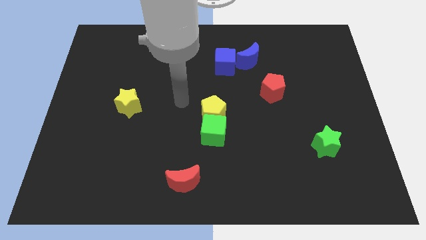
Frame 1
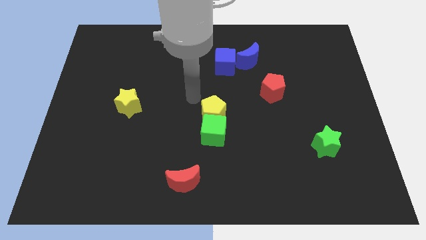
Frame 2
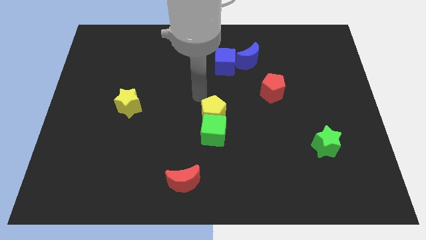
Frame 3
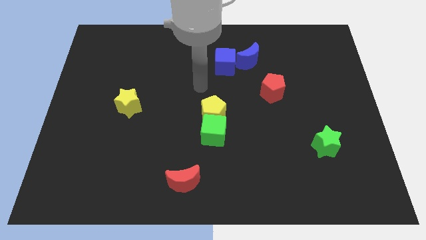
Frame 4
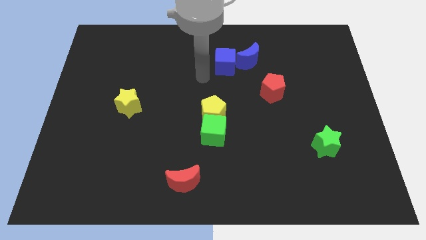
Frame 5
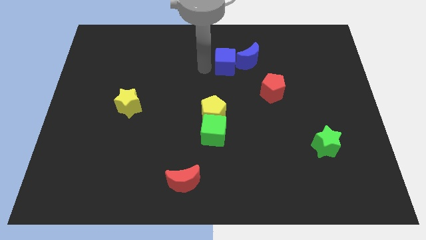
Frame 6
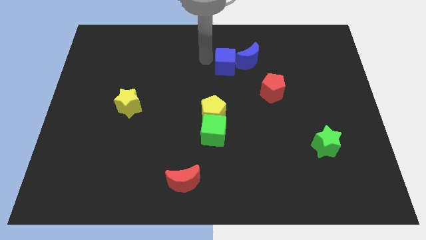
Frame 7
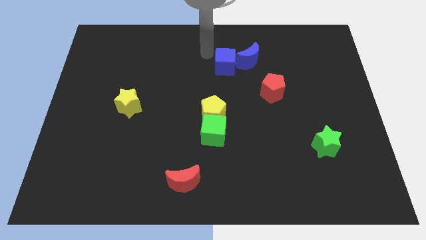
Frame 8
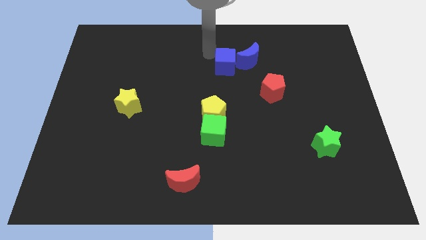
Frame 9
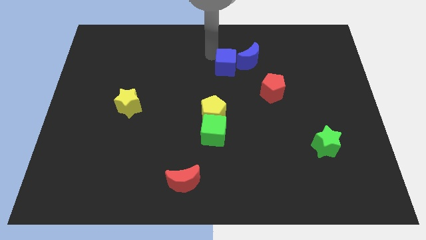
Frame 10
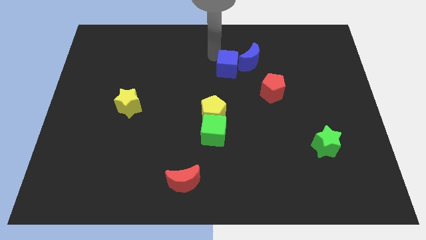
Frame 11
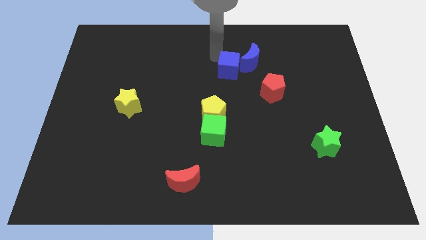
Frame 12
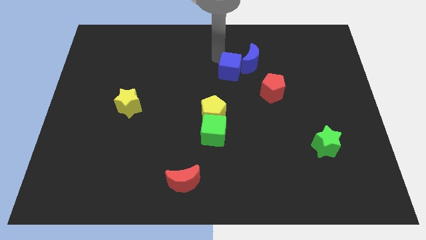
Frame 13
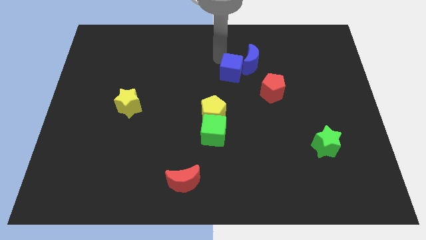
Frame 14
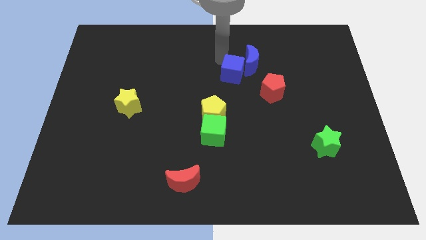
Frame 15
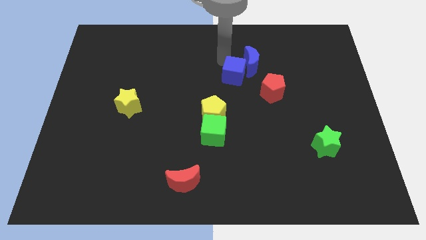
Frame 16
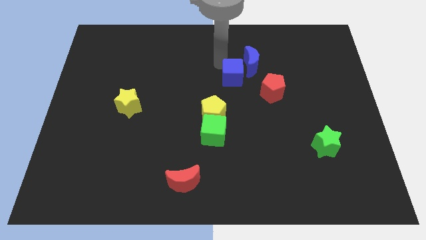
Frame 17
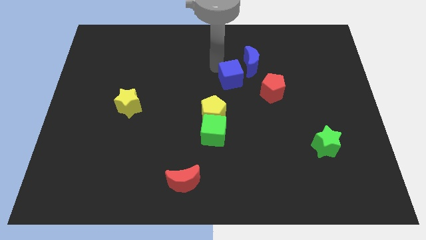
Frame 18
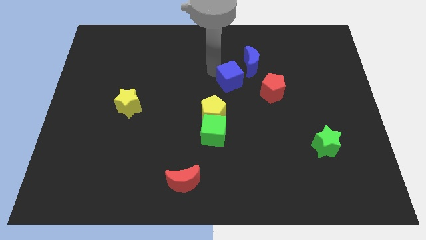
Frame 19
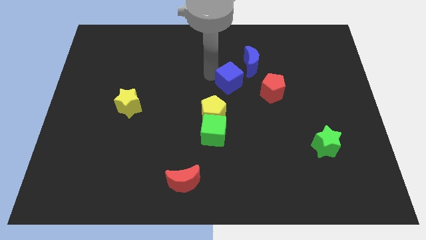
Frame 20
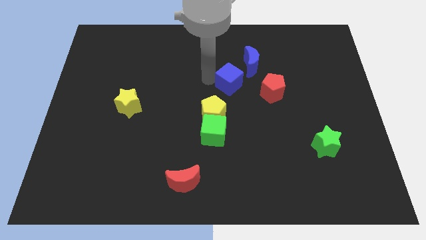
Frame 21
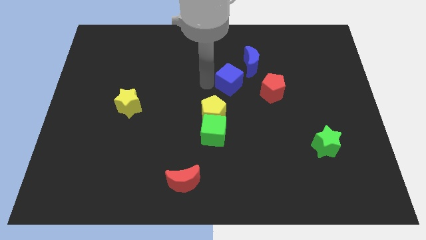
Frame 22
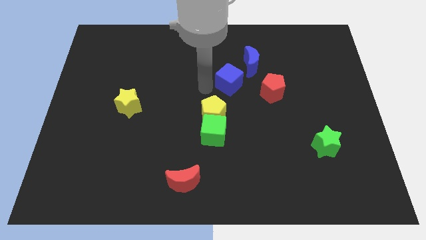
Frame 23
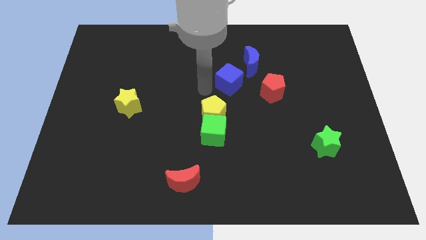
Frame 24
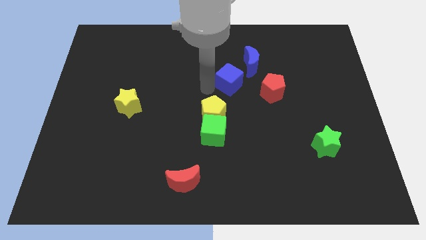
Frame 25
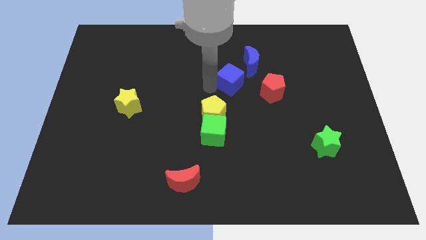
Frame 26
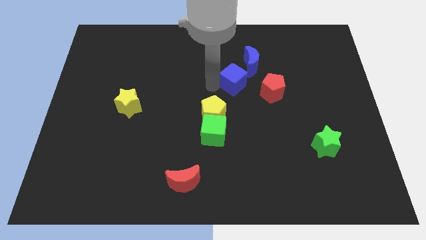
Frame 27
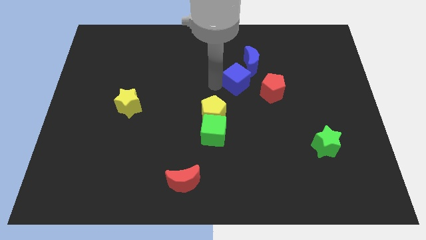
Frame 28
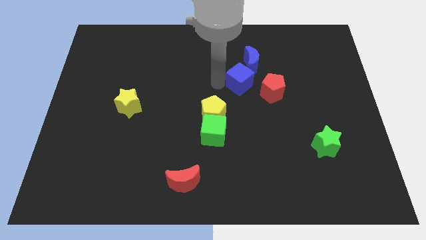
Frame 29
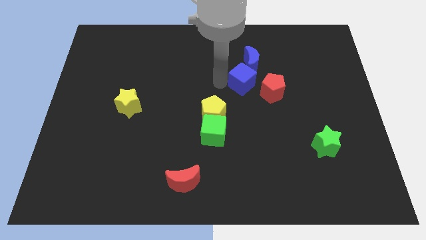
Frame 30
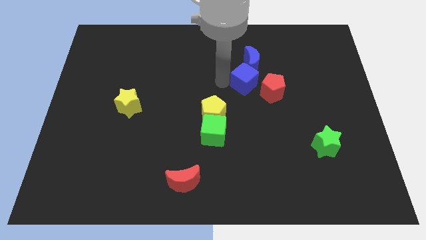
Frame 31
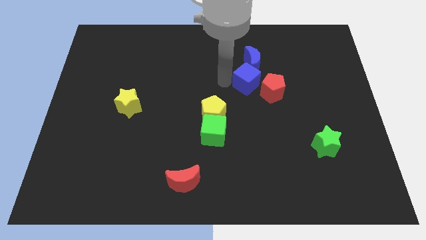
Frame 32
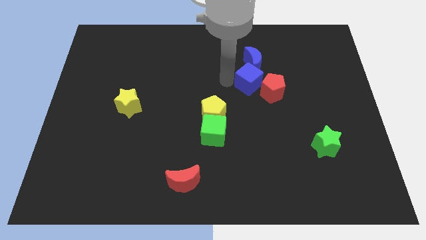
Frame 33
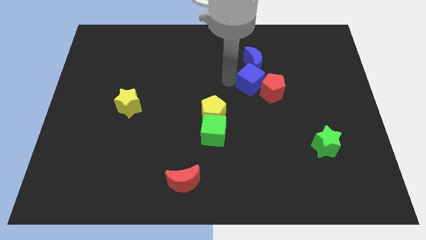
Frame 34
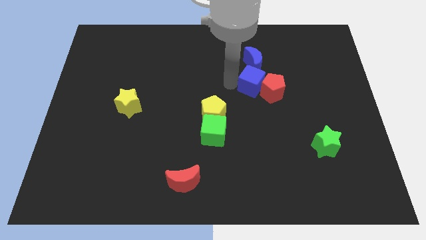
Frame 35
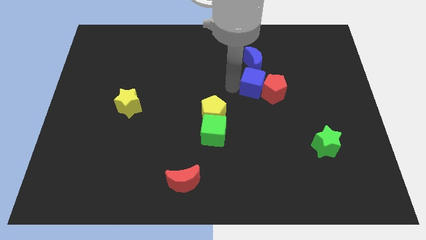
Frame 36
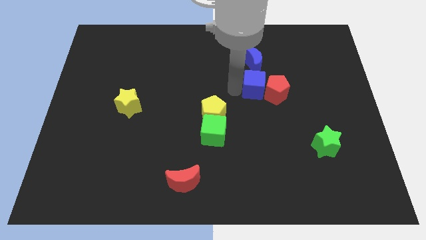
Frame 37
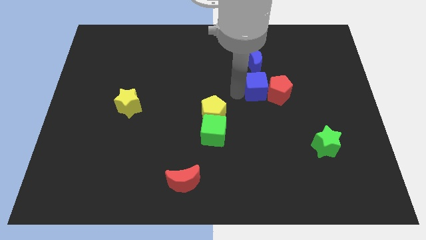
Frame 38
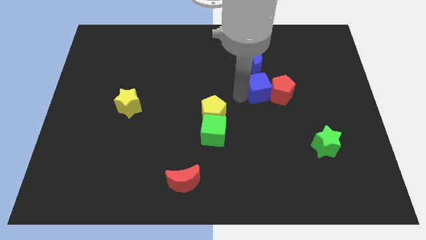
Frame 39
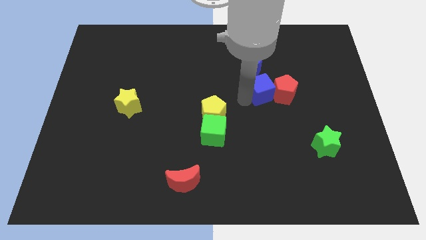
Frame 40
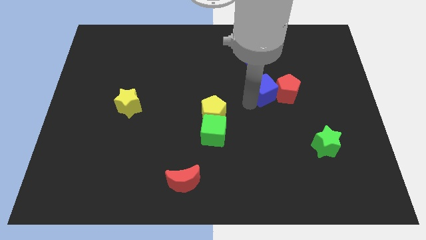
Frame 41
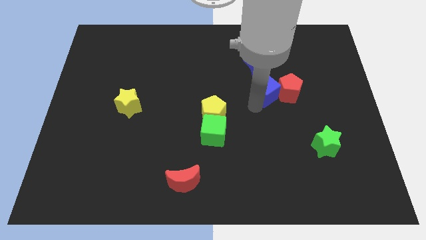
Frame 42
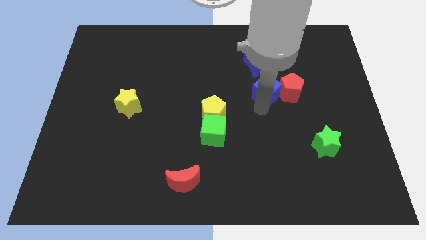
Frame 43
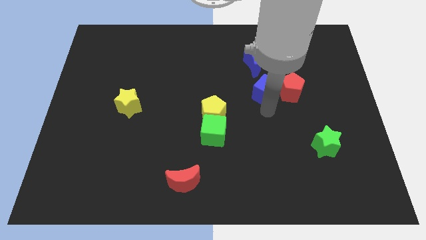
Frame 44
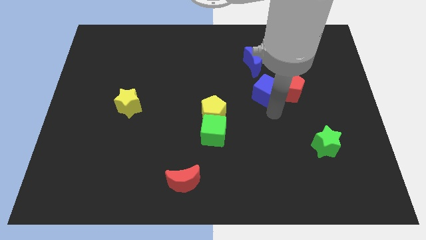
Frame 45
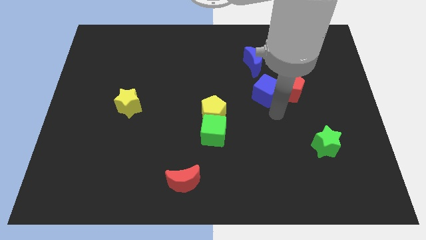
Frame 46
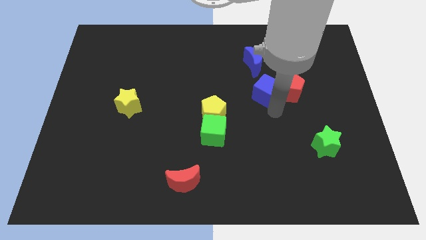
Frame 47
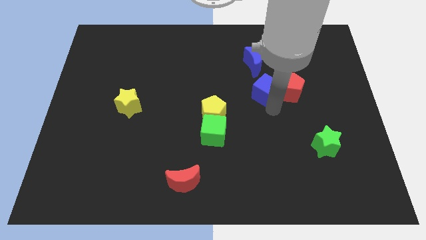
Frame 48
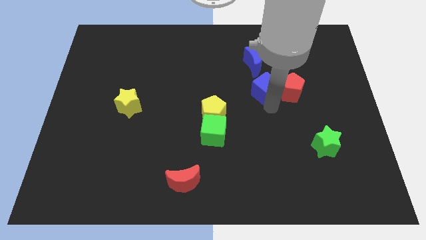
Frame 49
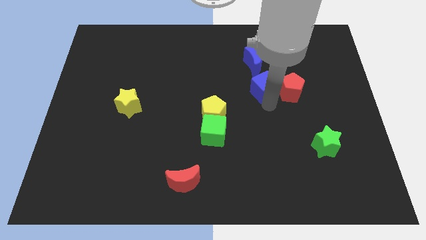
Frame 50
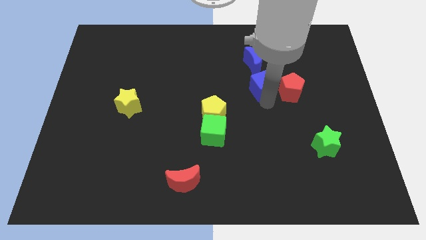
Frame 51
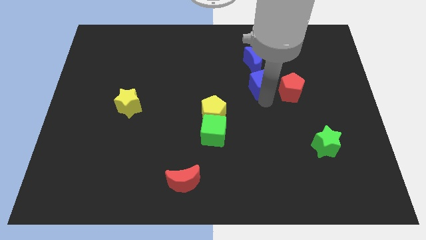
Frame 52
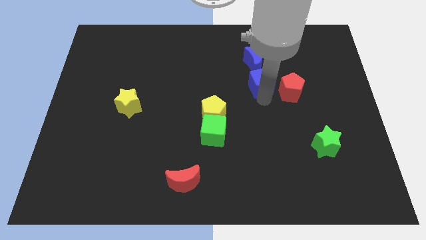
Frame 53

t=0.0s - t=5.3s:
slightly push the blue cube to the right

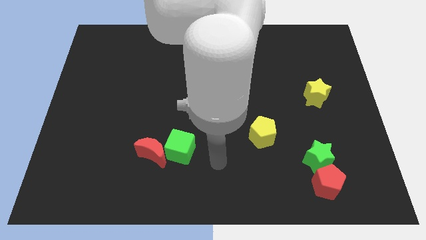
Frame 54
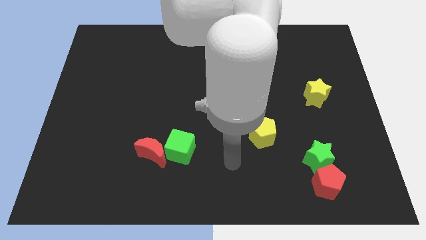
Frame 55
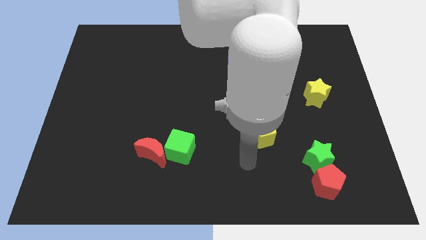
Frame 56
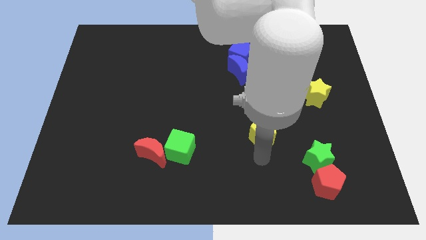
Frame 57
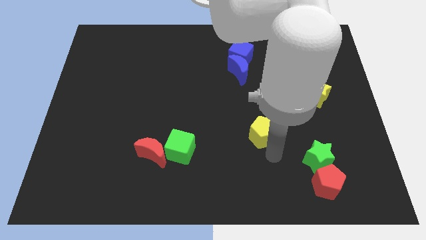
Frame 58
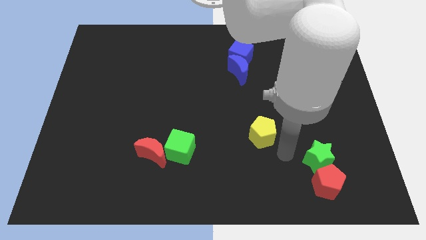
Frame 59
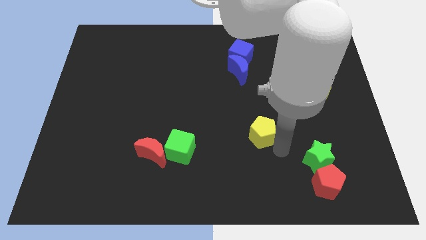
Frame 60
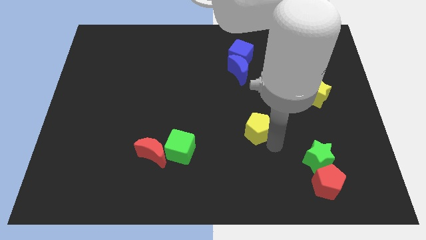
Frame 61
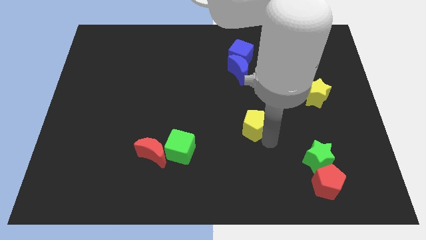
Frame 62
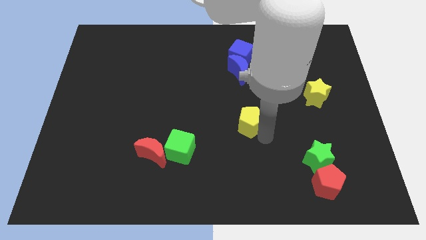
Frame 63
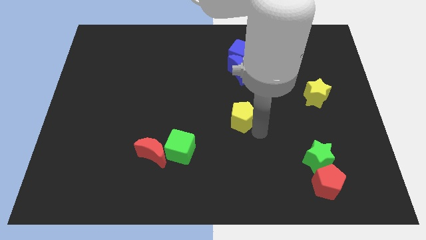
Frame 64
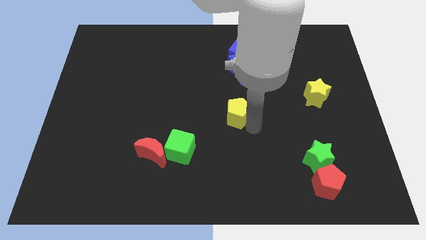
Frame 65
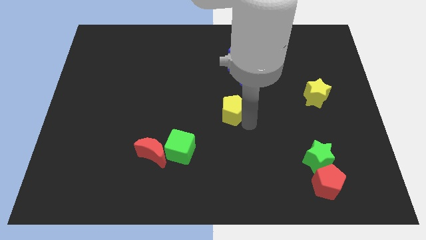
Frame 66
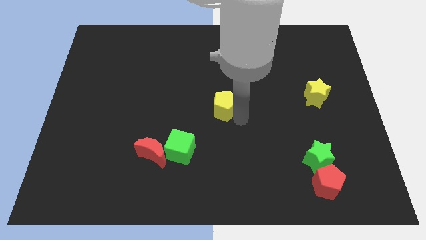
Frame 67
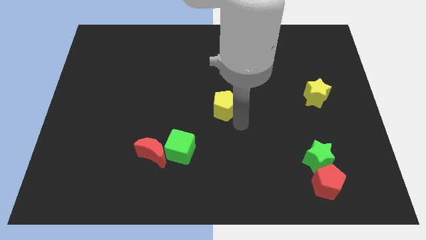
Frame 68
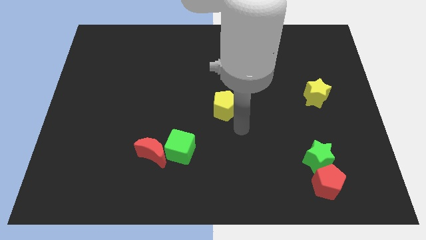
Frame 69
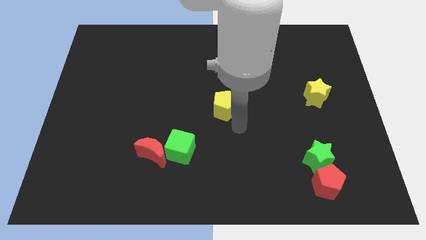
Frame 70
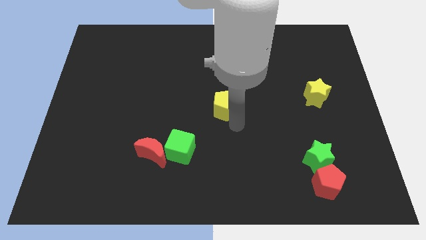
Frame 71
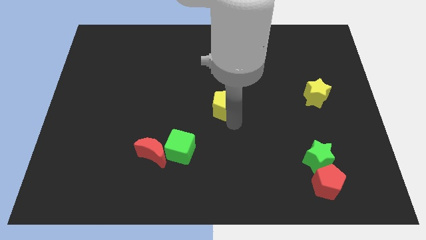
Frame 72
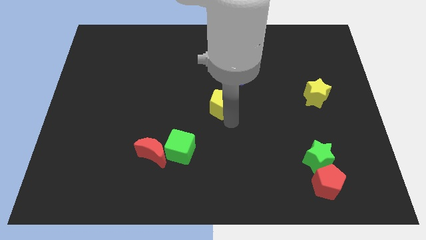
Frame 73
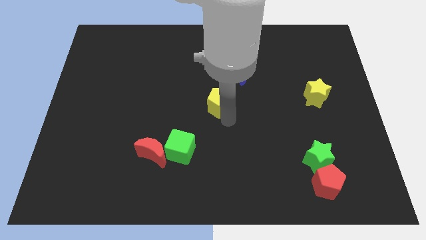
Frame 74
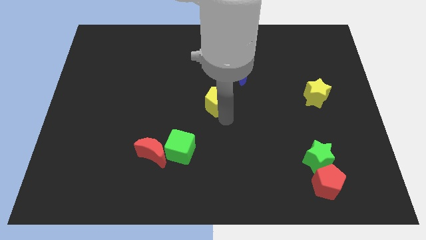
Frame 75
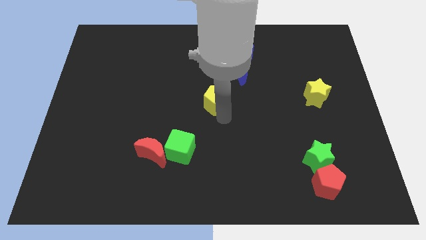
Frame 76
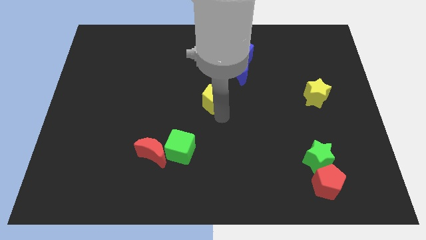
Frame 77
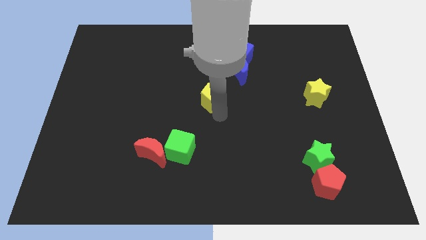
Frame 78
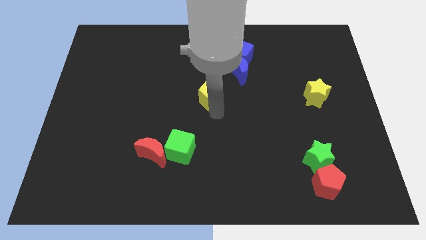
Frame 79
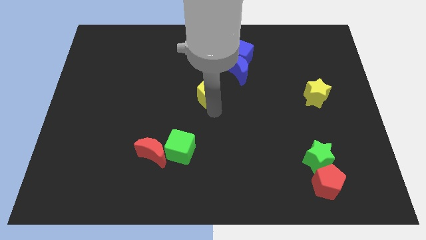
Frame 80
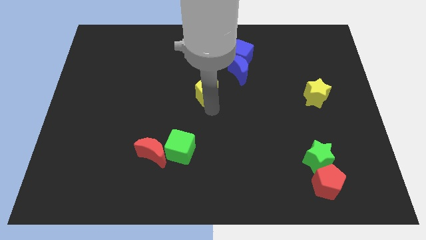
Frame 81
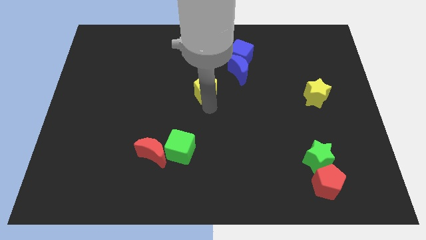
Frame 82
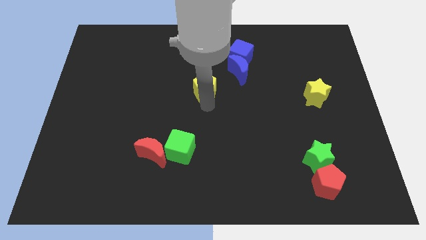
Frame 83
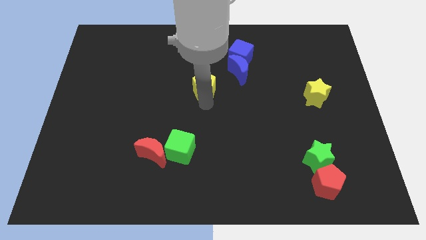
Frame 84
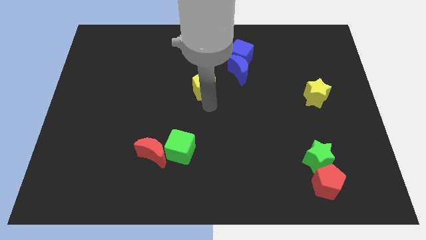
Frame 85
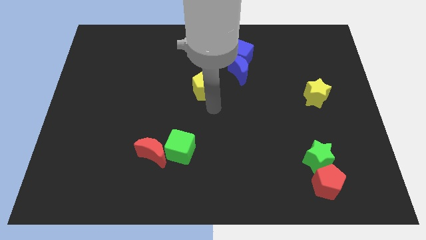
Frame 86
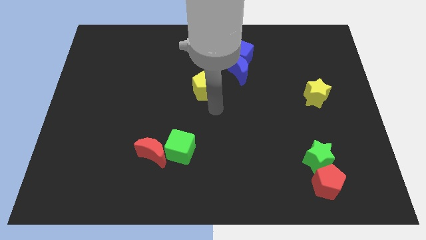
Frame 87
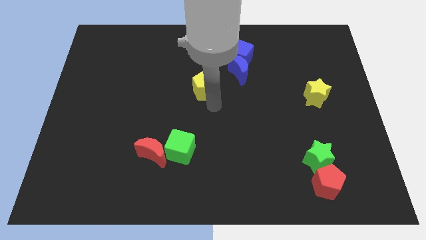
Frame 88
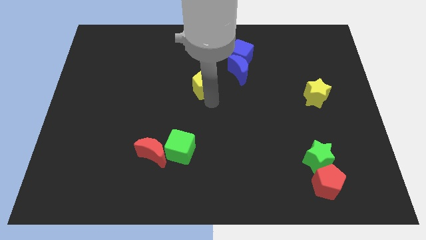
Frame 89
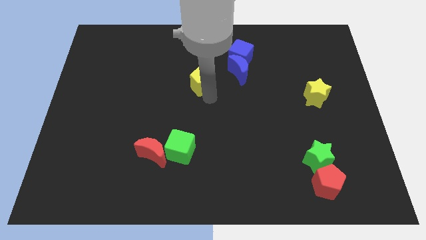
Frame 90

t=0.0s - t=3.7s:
slide the yellow pentagon upwards and to the left
